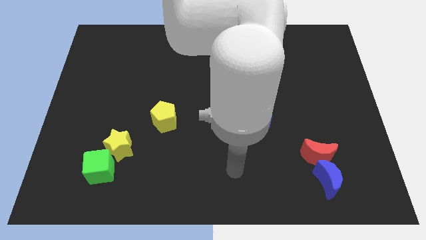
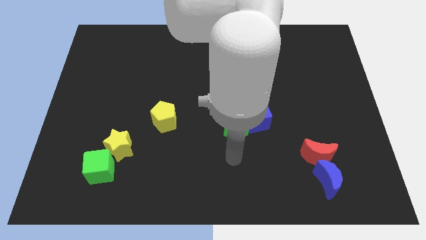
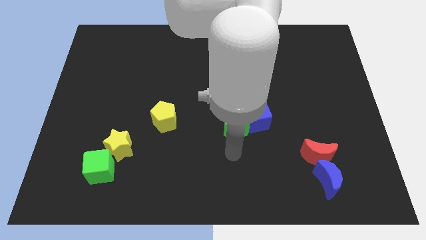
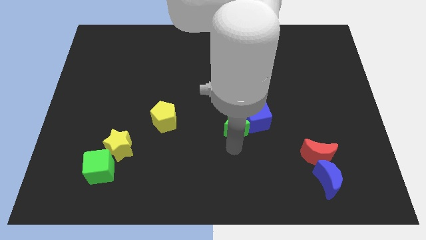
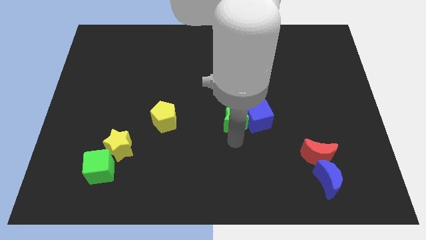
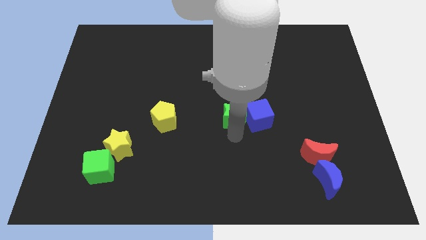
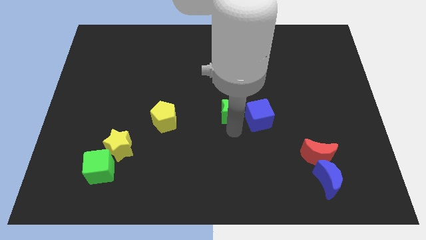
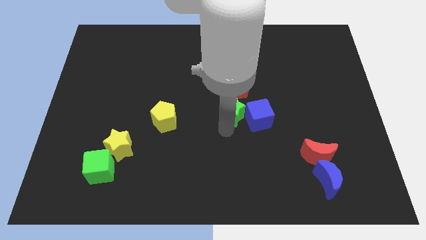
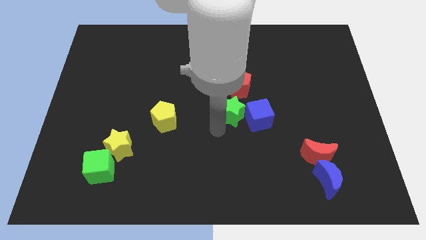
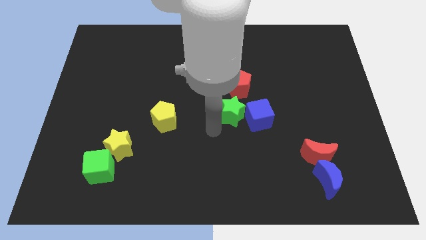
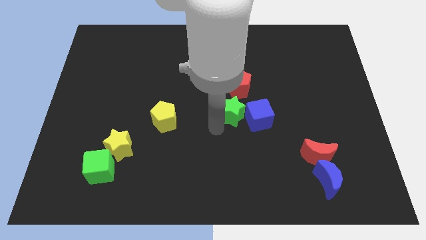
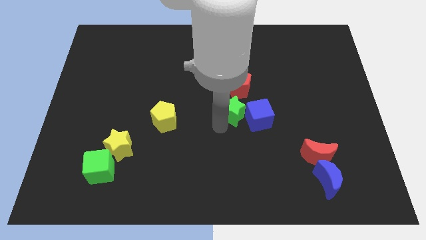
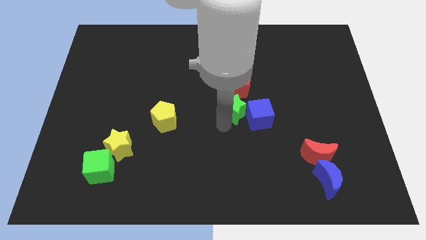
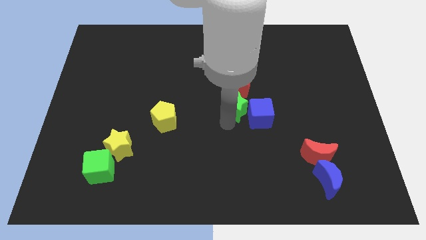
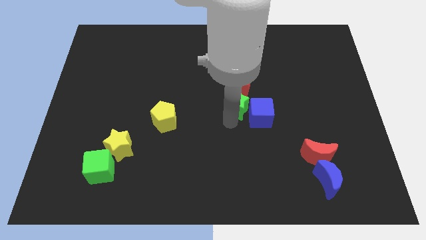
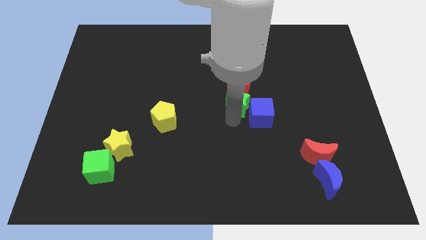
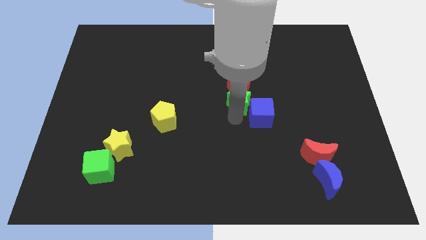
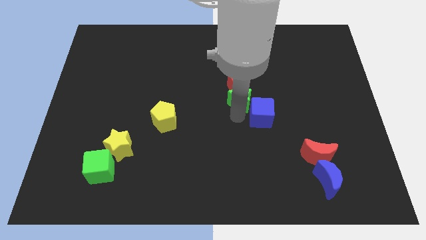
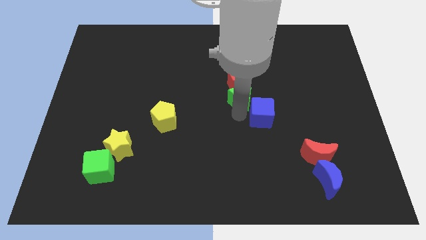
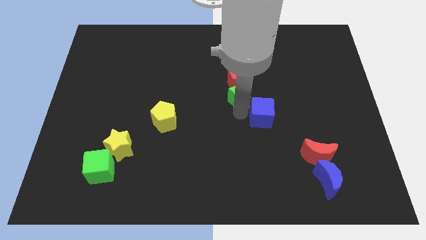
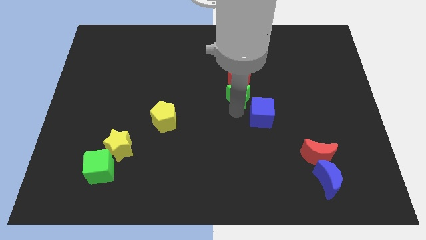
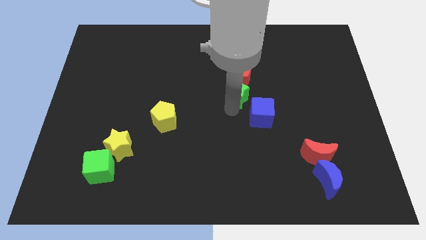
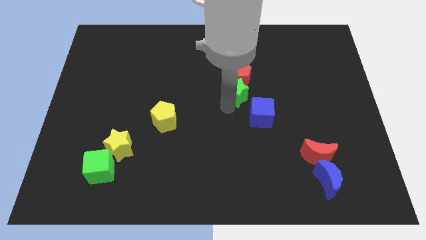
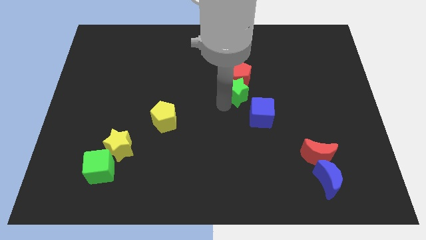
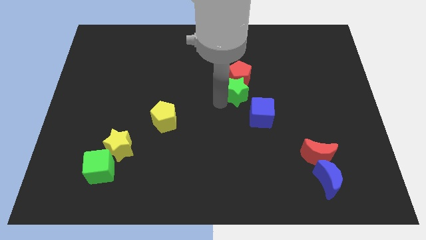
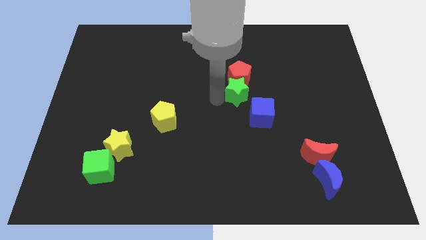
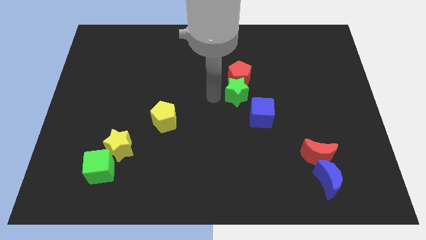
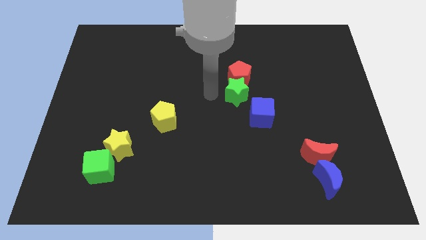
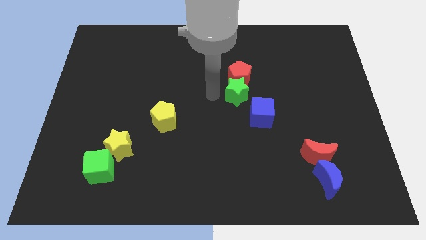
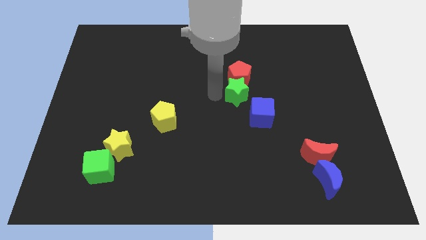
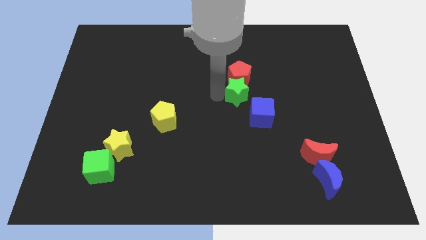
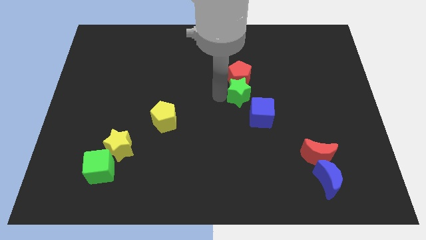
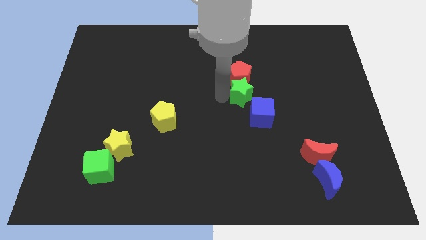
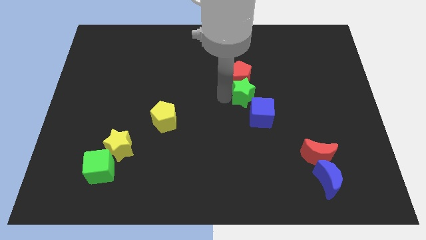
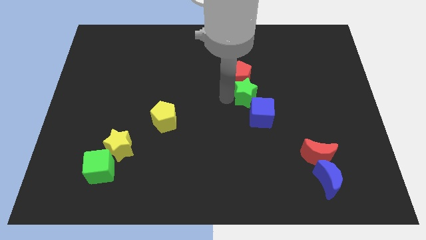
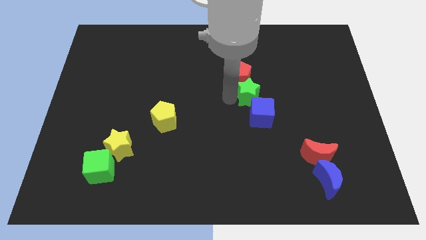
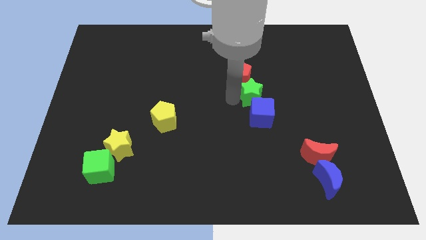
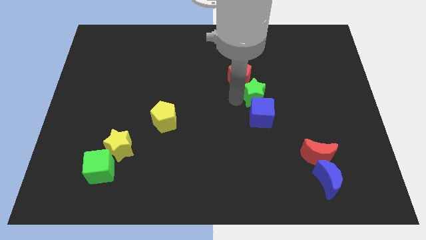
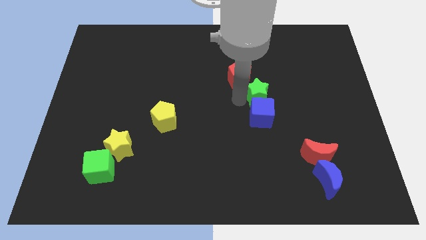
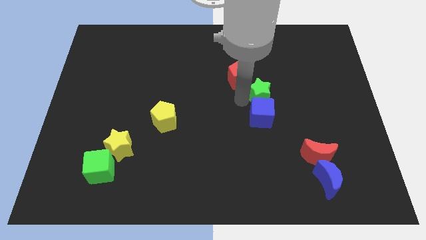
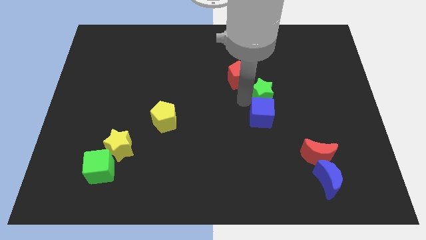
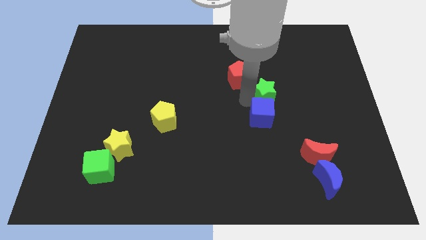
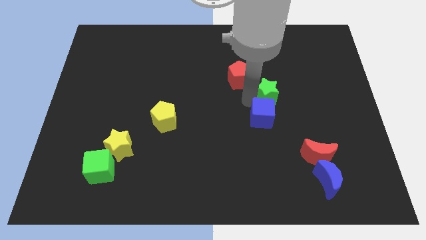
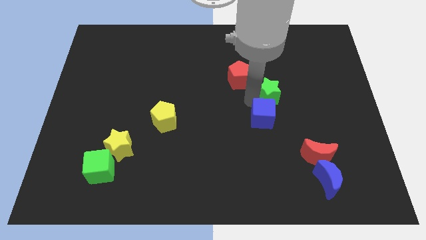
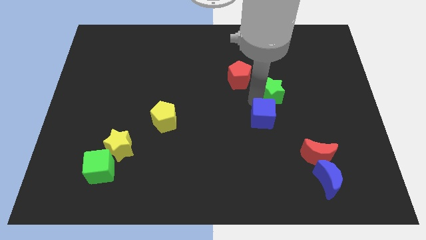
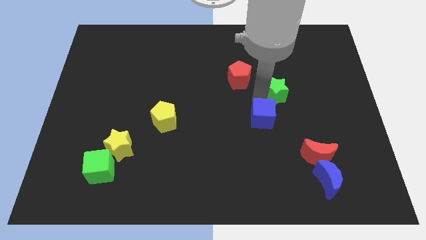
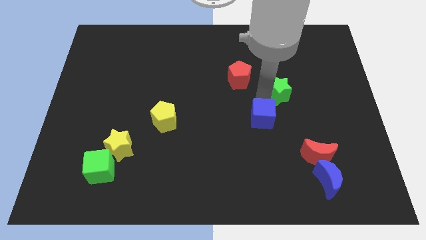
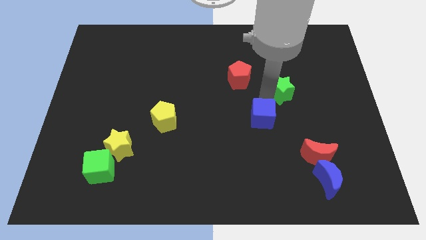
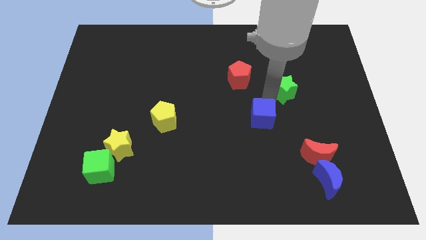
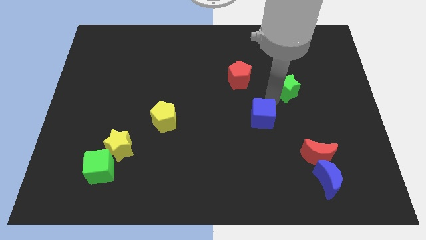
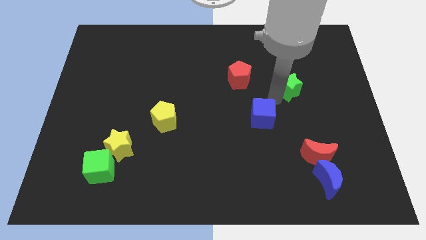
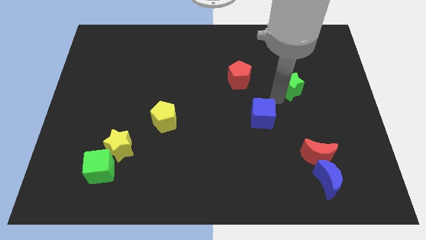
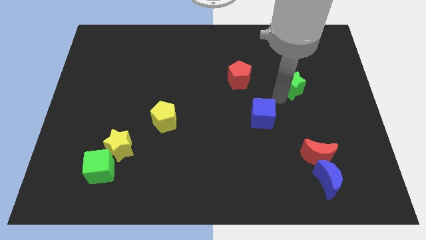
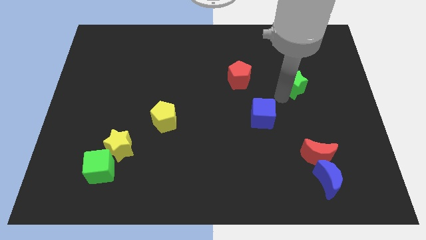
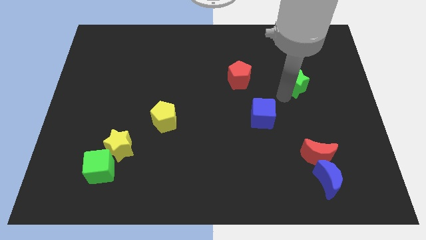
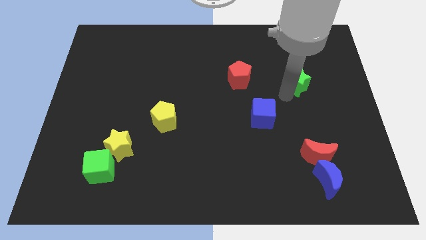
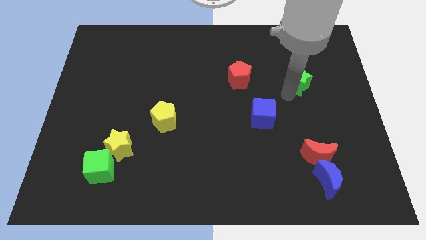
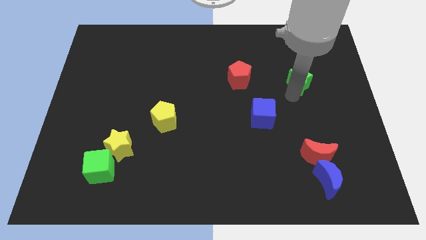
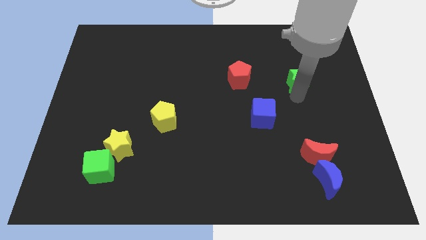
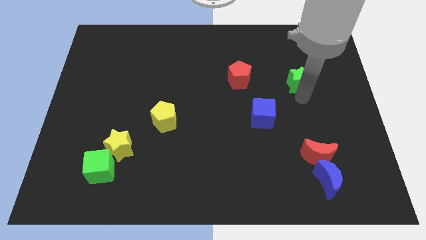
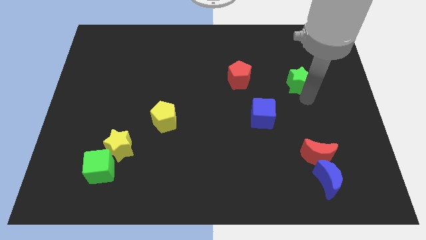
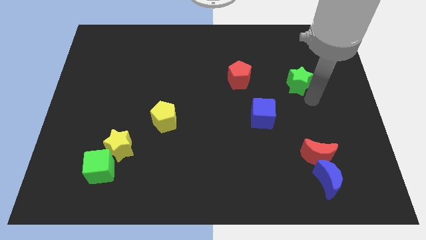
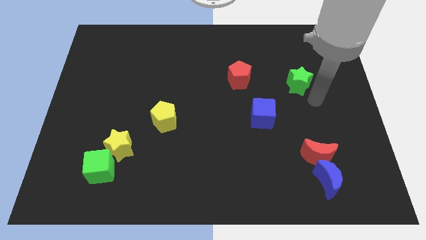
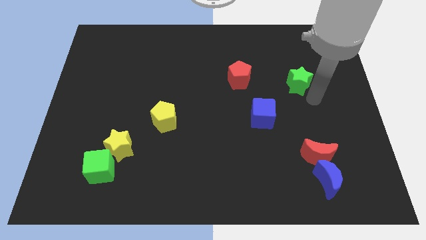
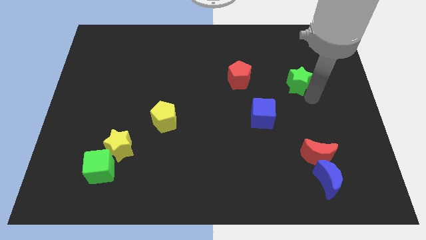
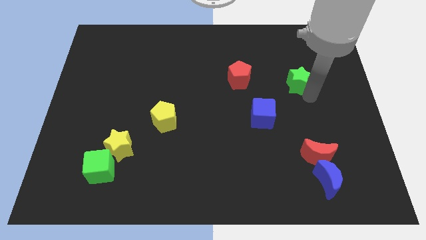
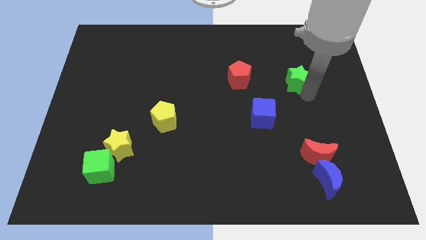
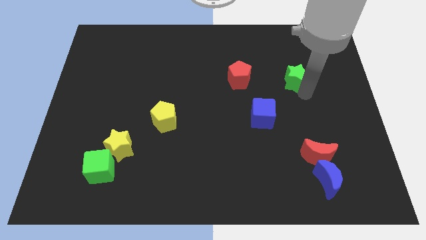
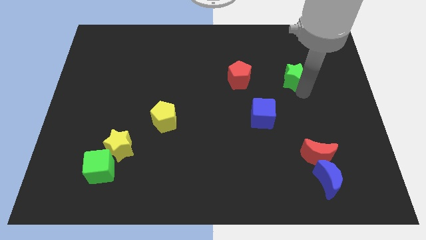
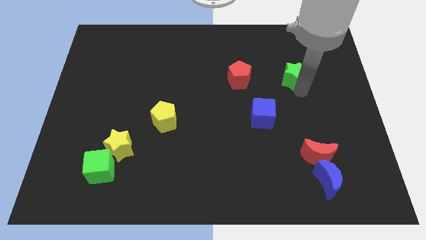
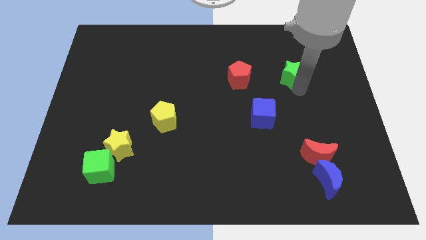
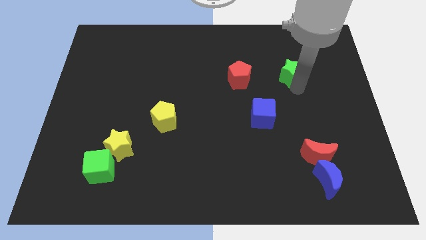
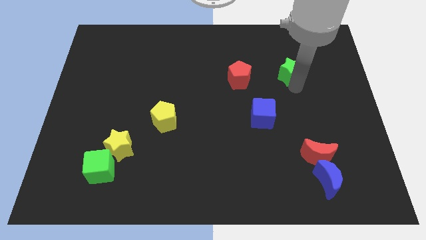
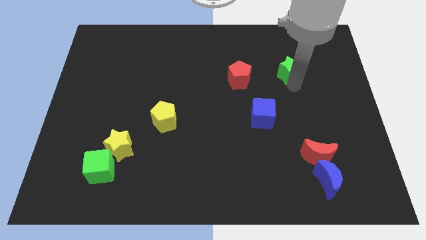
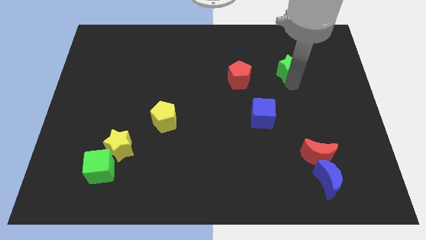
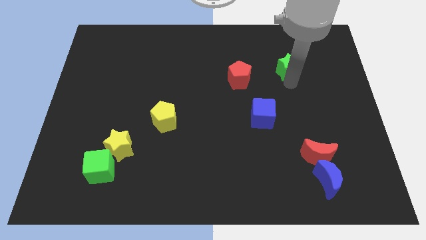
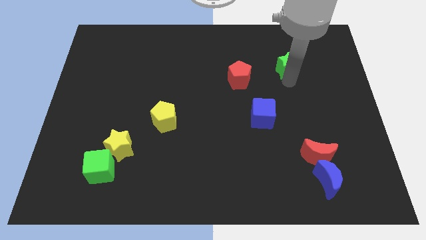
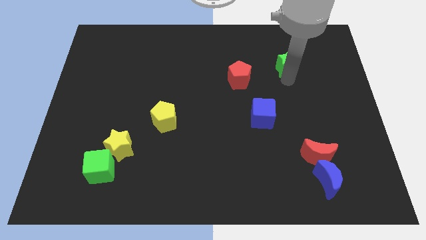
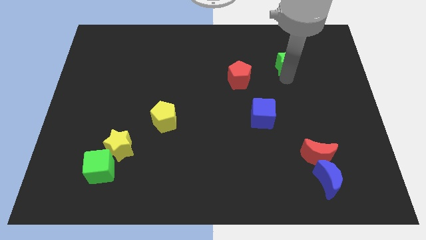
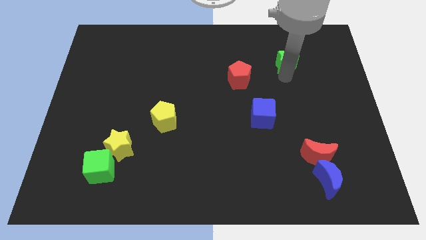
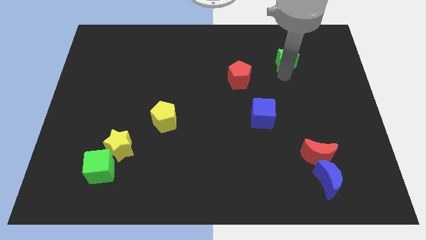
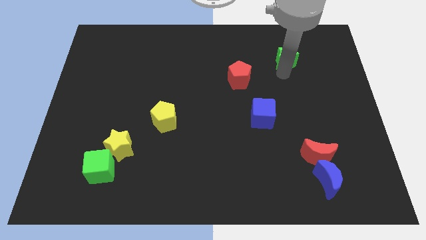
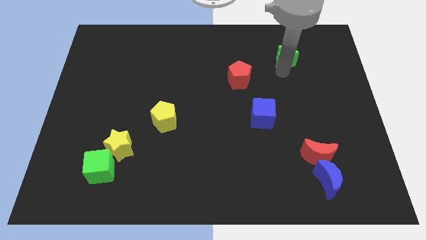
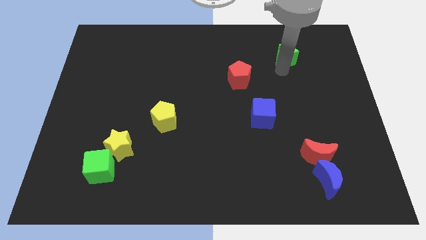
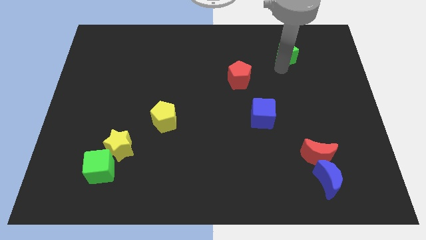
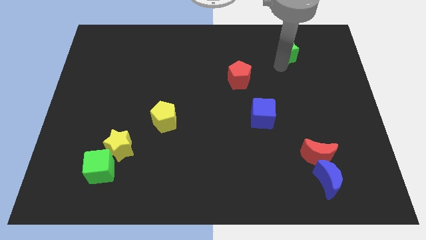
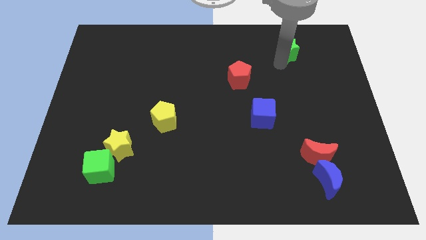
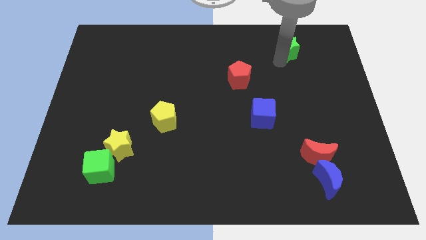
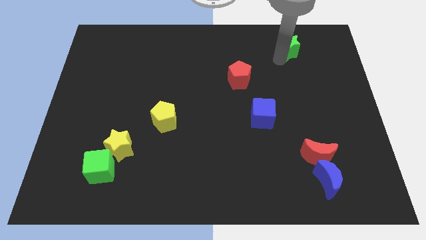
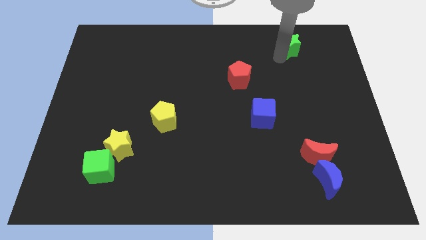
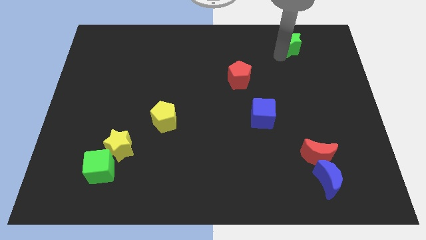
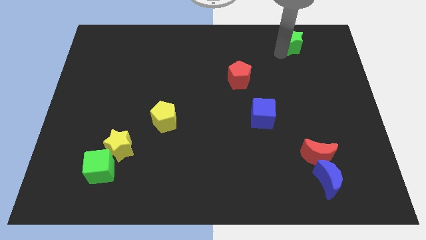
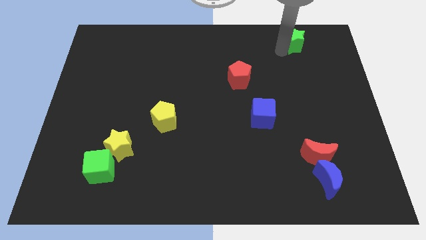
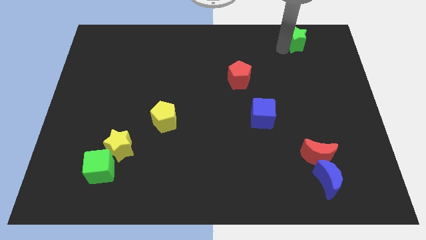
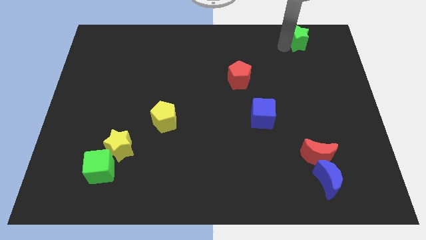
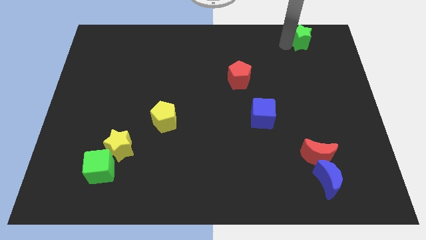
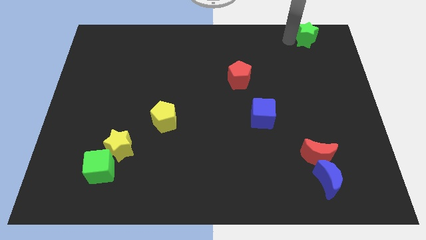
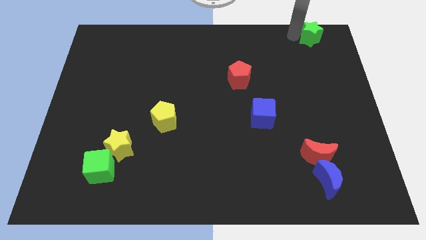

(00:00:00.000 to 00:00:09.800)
move the green star to the top right
